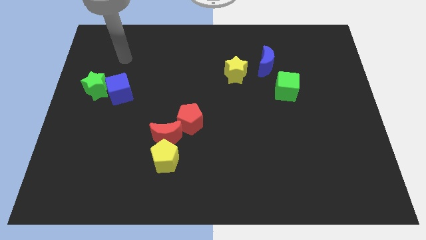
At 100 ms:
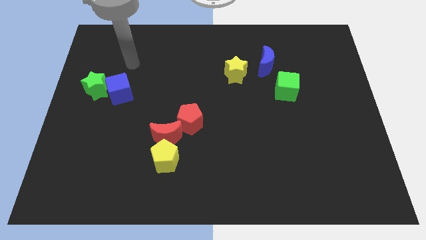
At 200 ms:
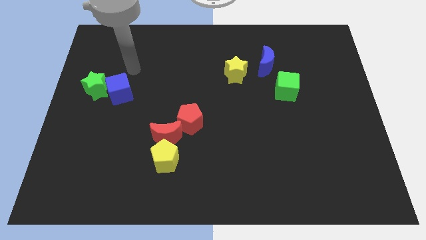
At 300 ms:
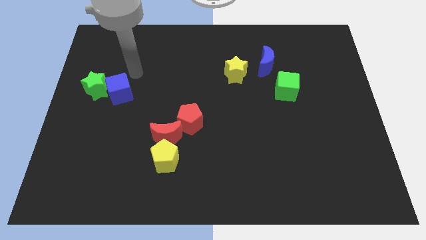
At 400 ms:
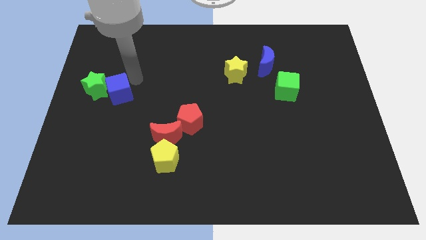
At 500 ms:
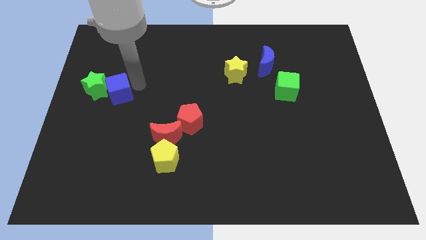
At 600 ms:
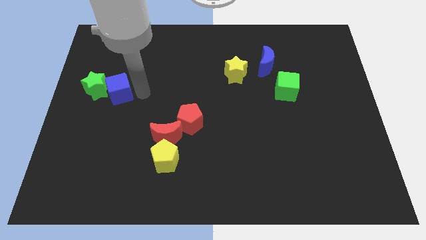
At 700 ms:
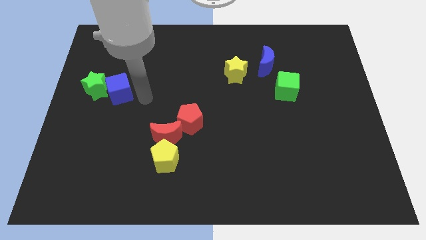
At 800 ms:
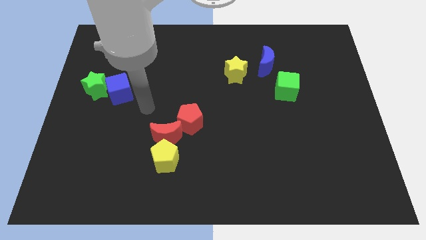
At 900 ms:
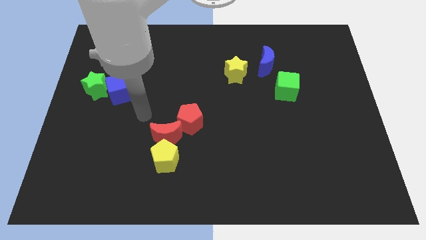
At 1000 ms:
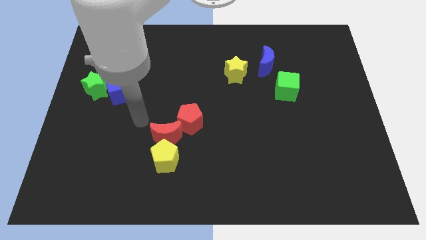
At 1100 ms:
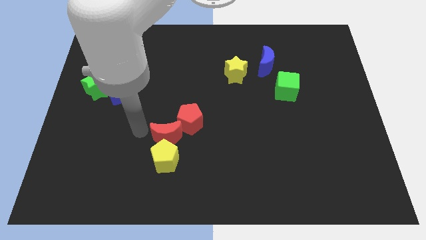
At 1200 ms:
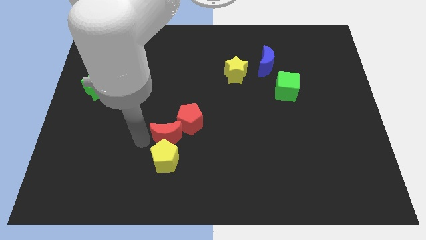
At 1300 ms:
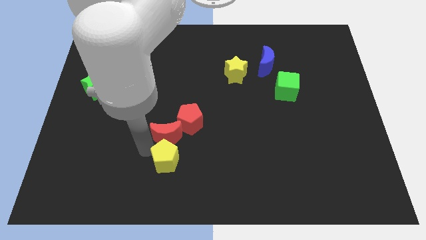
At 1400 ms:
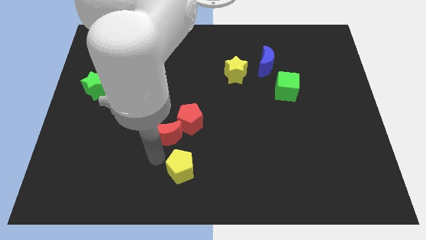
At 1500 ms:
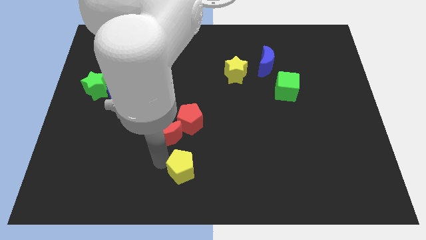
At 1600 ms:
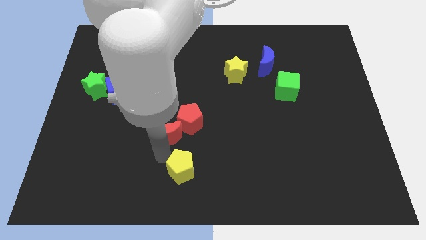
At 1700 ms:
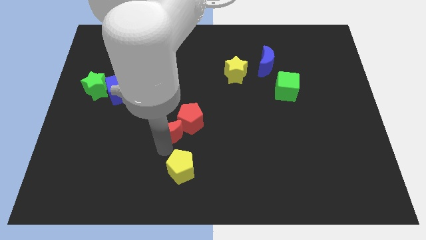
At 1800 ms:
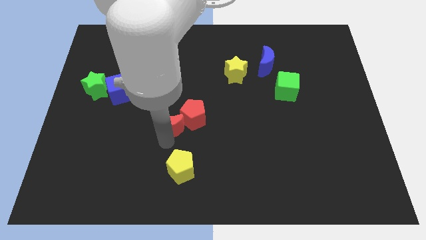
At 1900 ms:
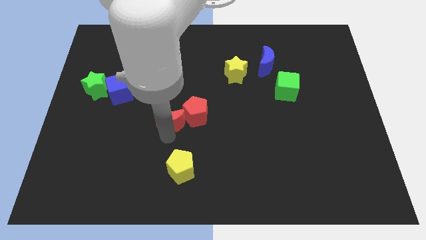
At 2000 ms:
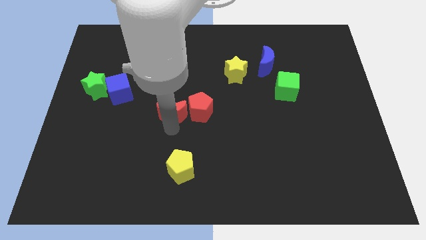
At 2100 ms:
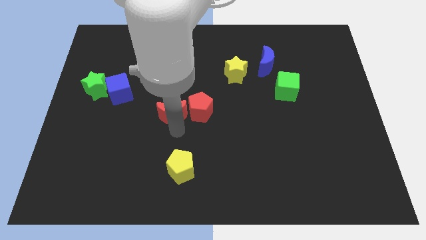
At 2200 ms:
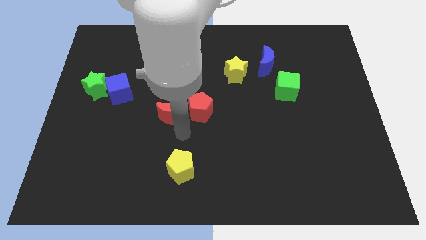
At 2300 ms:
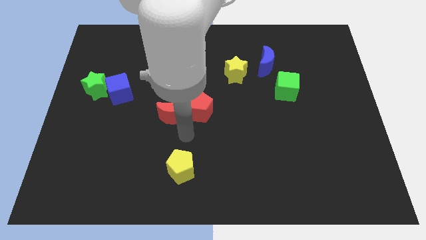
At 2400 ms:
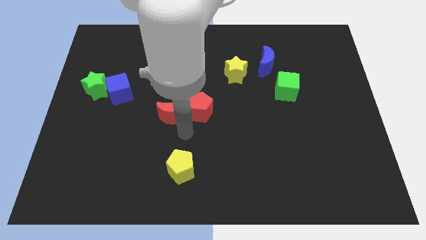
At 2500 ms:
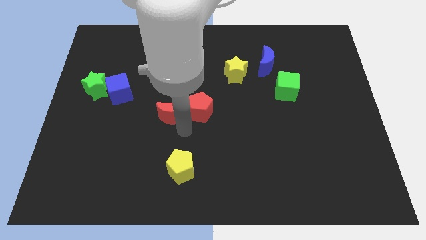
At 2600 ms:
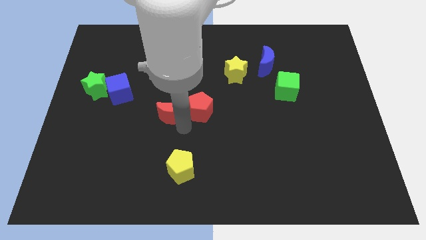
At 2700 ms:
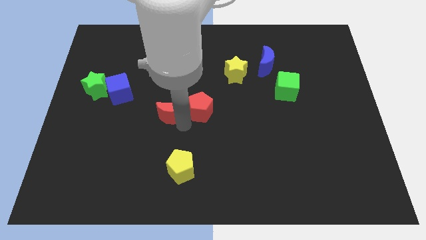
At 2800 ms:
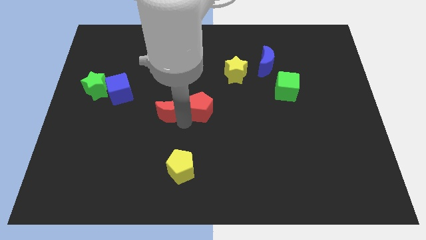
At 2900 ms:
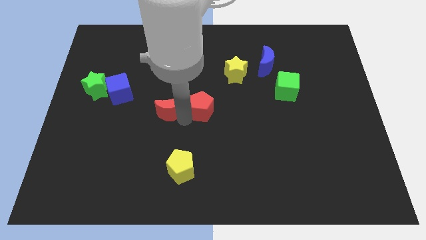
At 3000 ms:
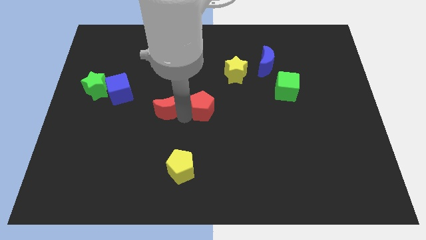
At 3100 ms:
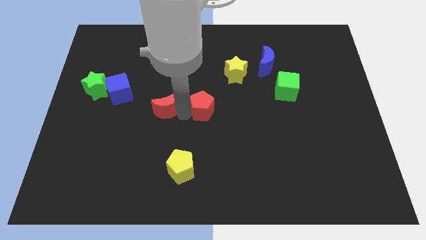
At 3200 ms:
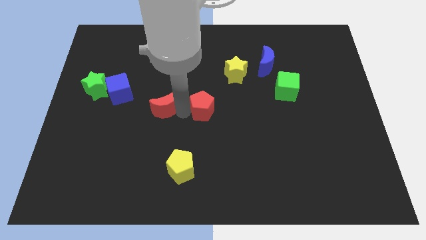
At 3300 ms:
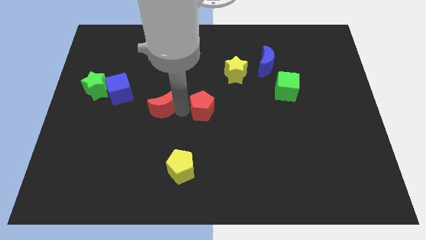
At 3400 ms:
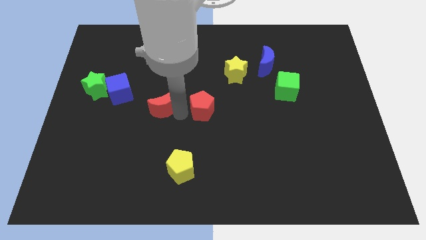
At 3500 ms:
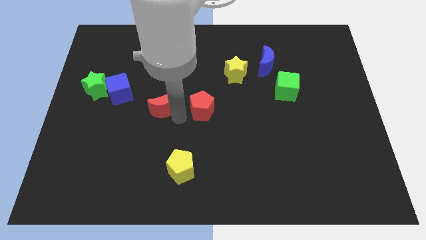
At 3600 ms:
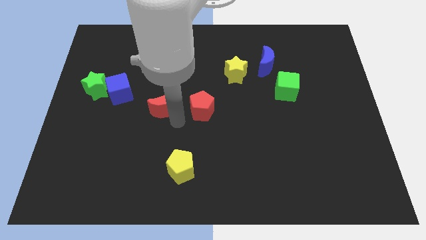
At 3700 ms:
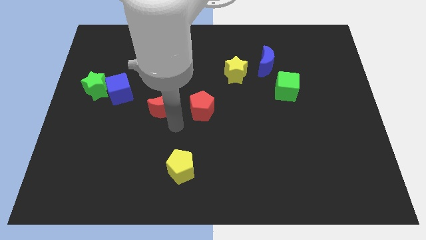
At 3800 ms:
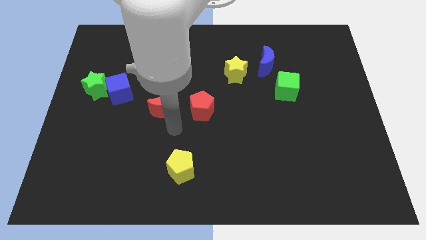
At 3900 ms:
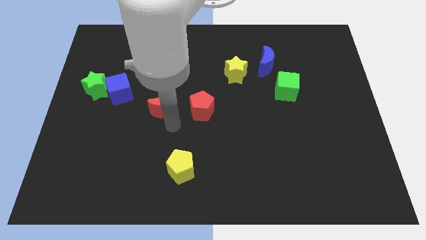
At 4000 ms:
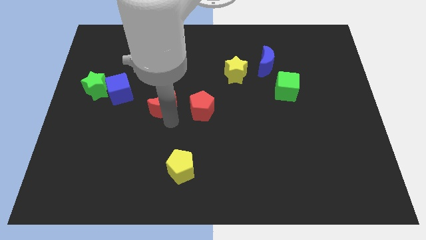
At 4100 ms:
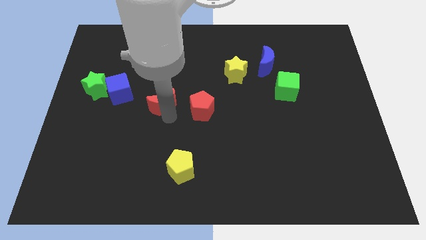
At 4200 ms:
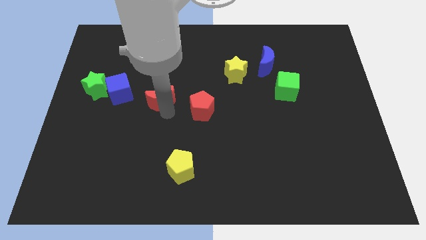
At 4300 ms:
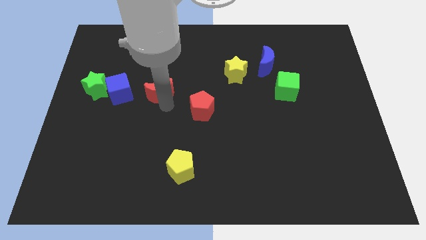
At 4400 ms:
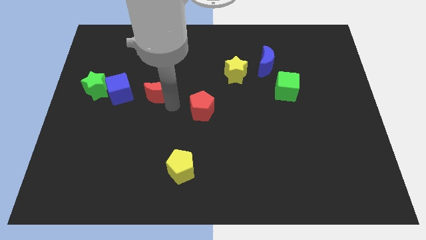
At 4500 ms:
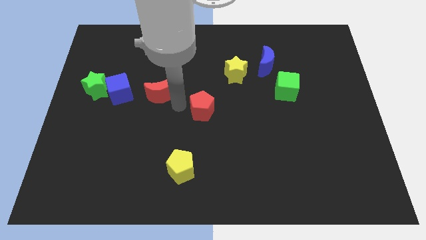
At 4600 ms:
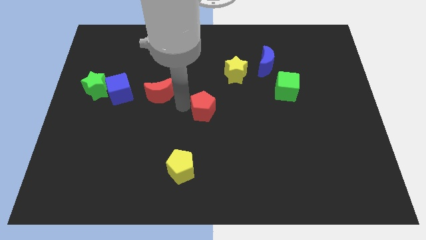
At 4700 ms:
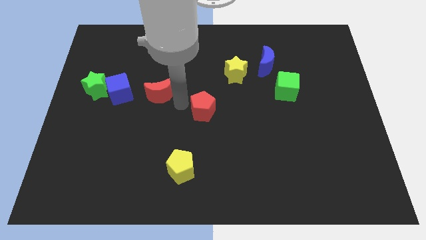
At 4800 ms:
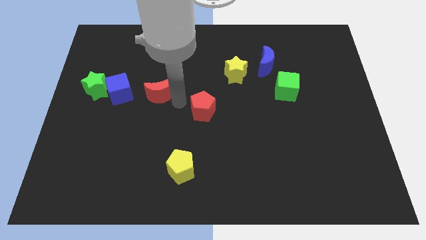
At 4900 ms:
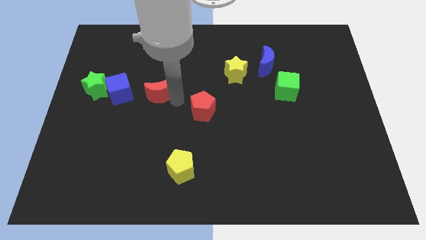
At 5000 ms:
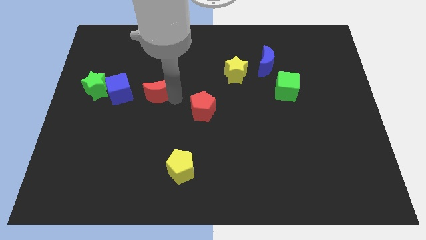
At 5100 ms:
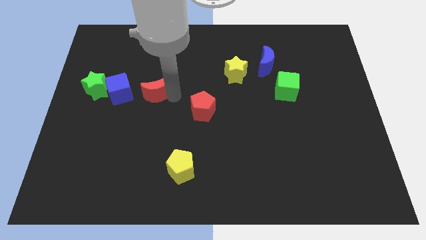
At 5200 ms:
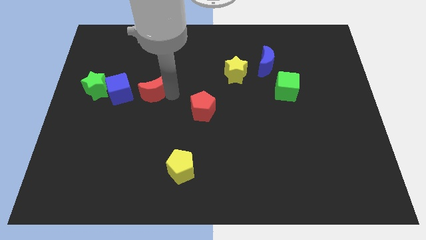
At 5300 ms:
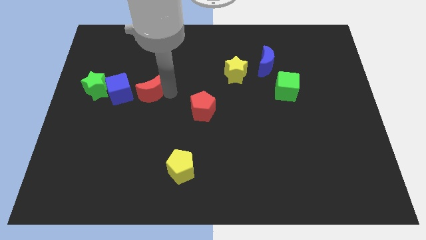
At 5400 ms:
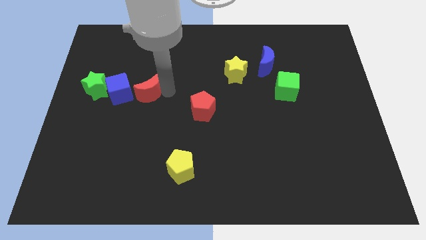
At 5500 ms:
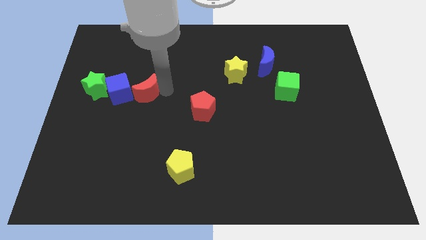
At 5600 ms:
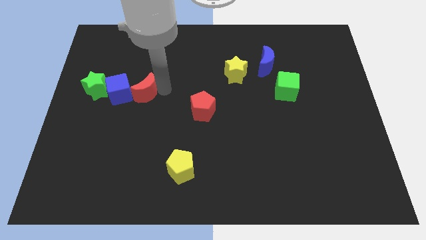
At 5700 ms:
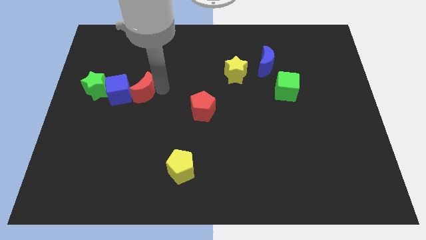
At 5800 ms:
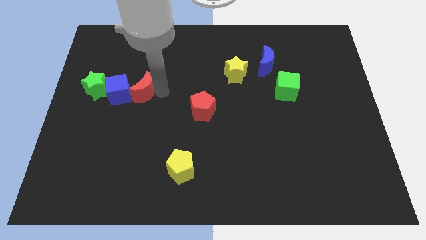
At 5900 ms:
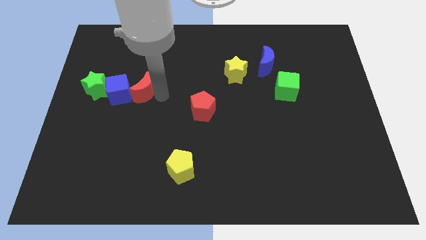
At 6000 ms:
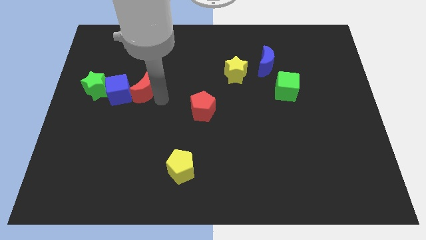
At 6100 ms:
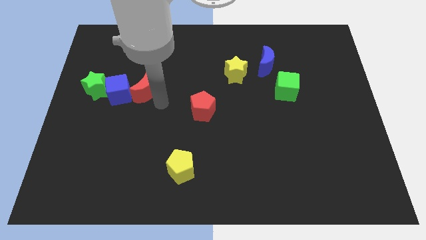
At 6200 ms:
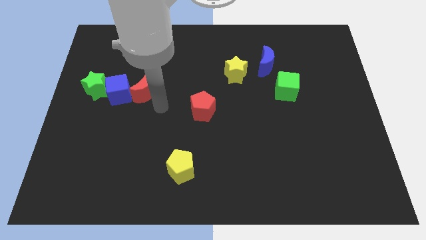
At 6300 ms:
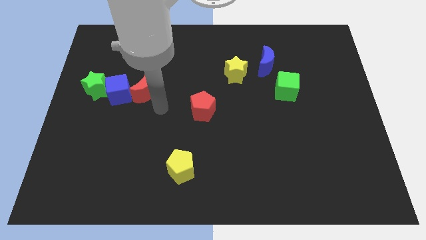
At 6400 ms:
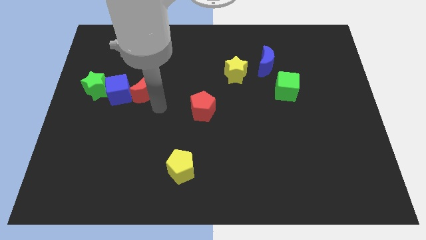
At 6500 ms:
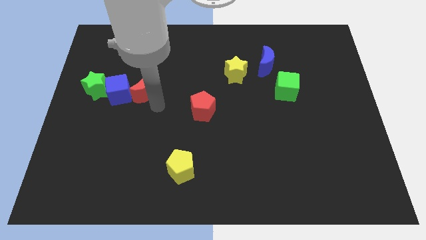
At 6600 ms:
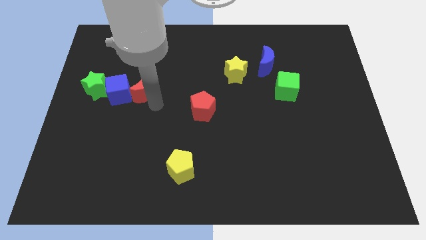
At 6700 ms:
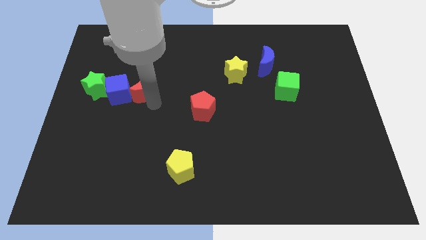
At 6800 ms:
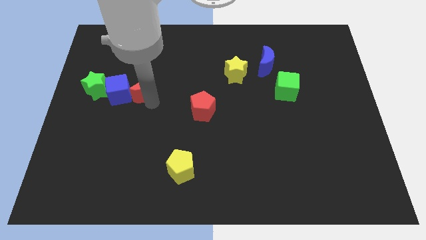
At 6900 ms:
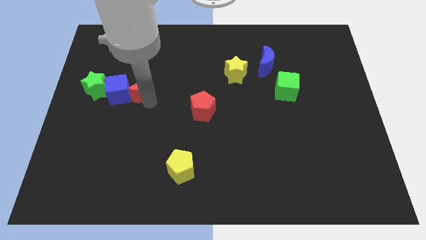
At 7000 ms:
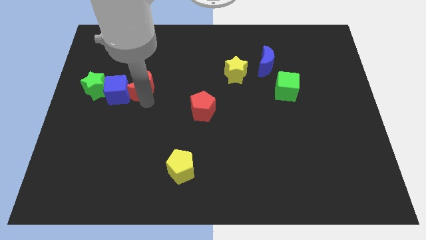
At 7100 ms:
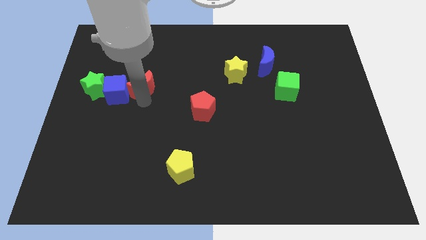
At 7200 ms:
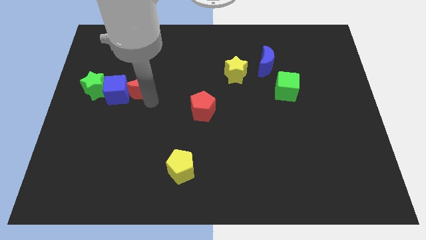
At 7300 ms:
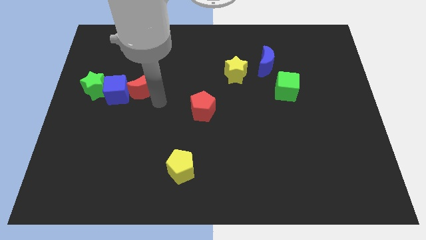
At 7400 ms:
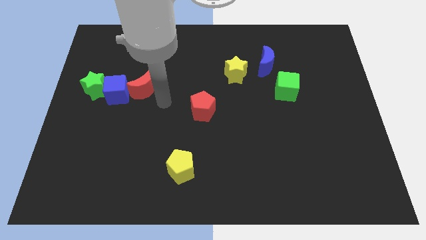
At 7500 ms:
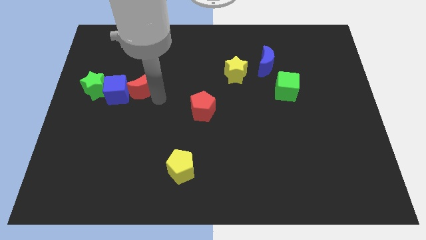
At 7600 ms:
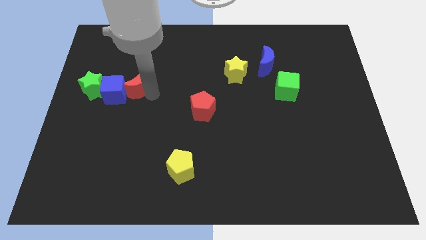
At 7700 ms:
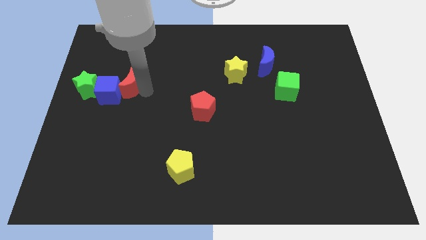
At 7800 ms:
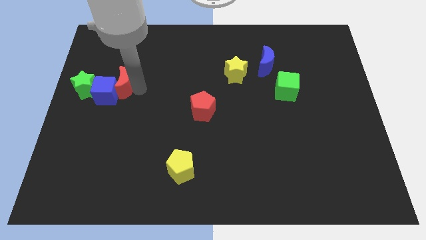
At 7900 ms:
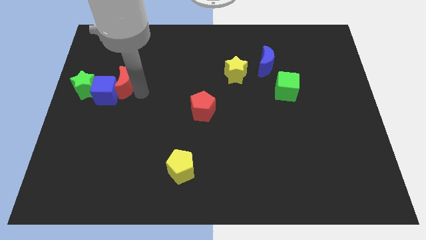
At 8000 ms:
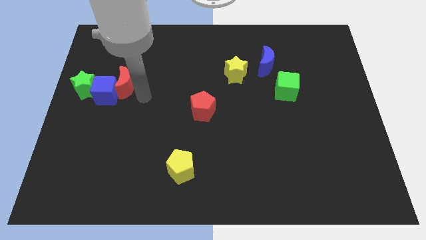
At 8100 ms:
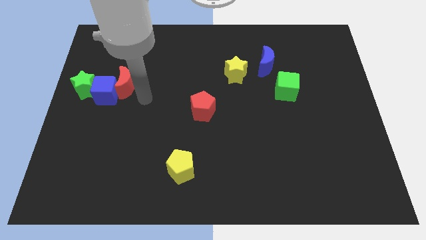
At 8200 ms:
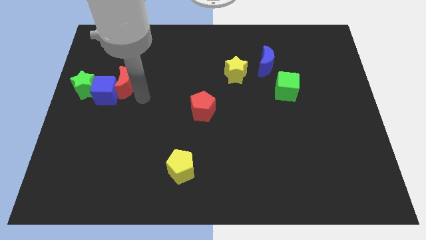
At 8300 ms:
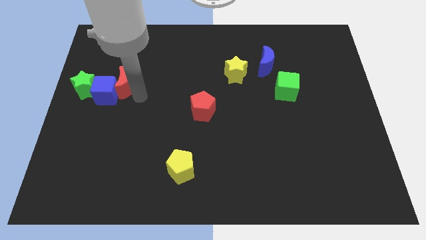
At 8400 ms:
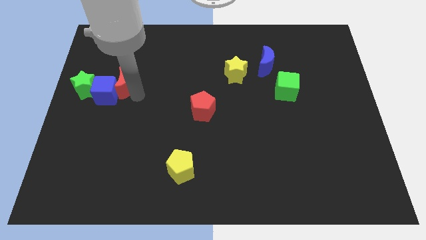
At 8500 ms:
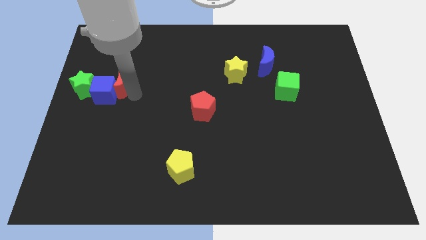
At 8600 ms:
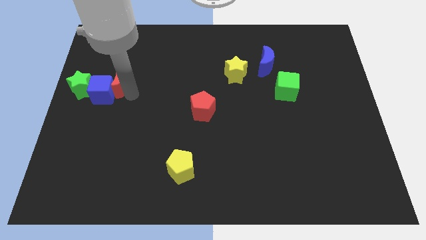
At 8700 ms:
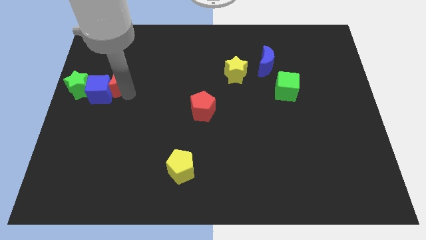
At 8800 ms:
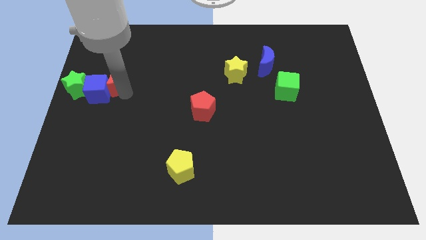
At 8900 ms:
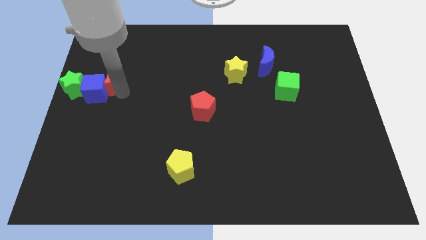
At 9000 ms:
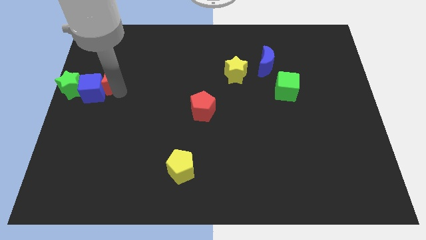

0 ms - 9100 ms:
slide the red moon to the top right of the green star
